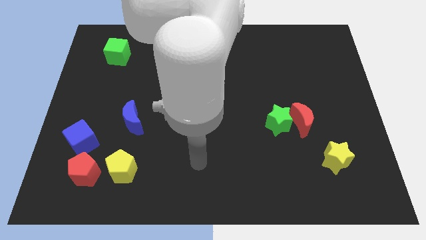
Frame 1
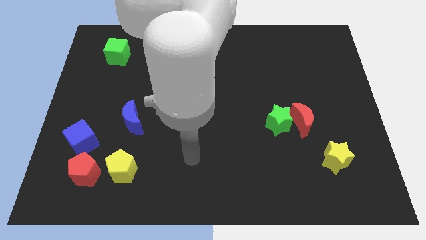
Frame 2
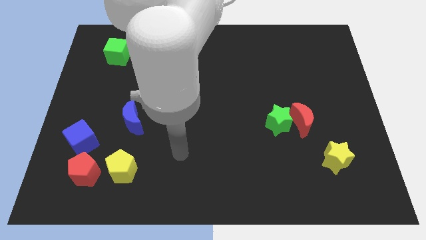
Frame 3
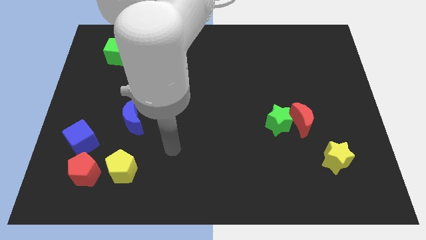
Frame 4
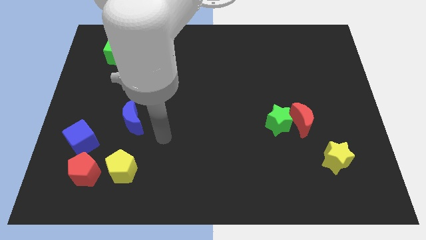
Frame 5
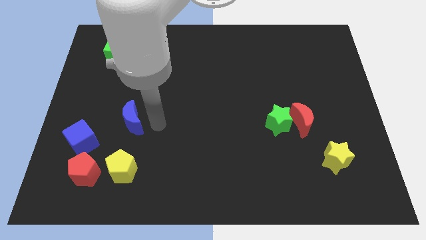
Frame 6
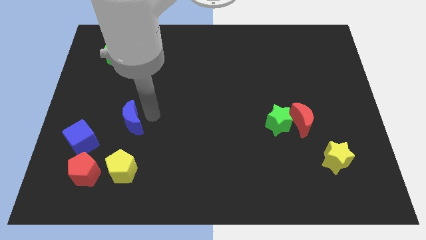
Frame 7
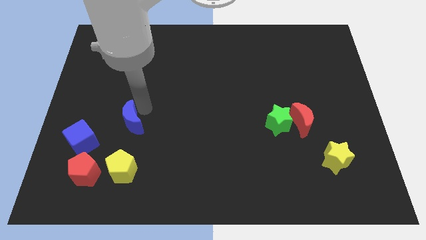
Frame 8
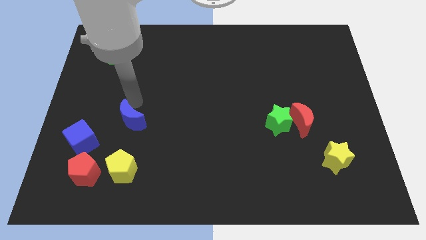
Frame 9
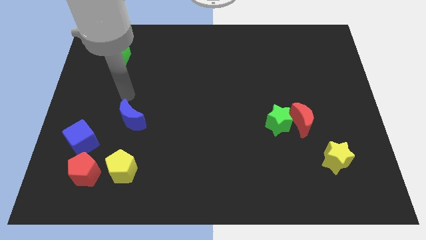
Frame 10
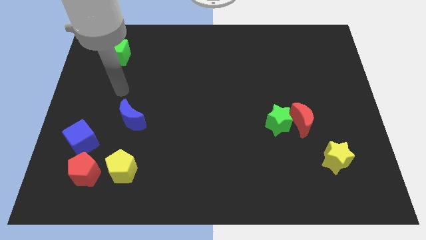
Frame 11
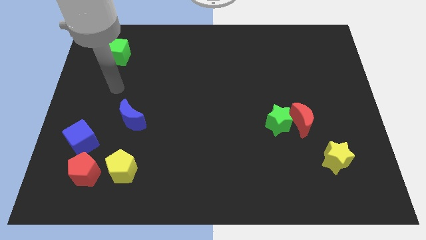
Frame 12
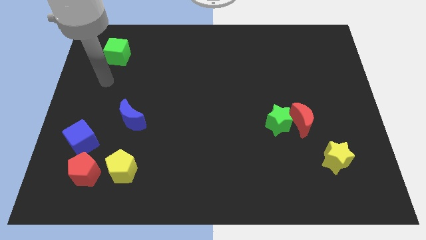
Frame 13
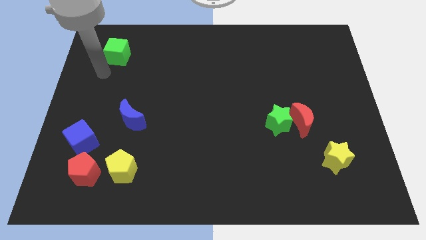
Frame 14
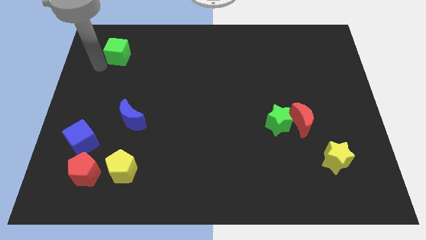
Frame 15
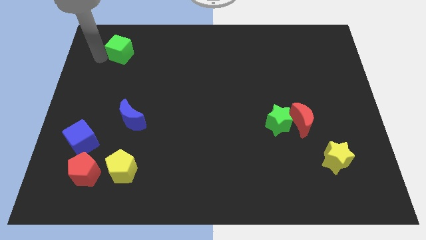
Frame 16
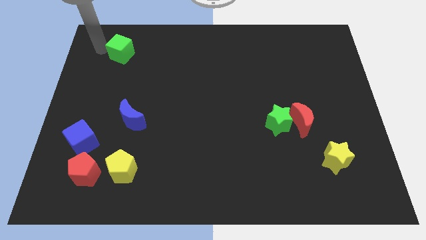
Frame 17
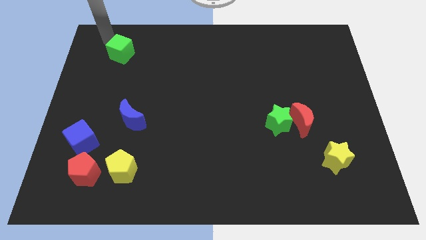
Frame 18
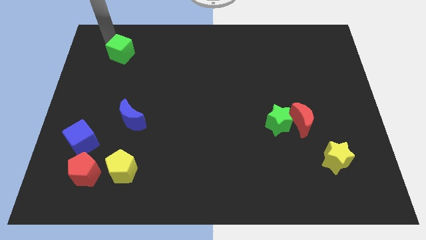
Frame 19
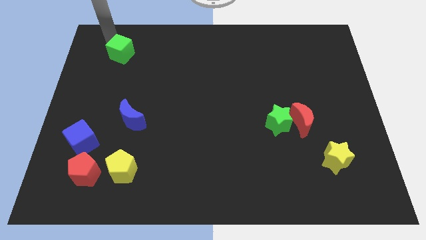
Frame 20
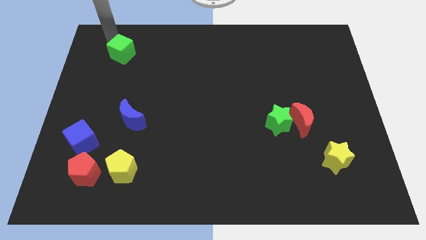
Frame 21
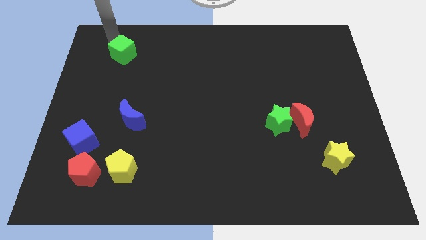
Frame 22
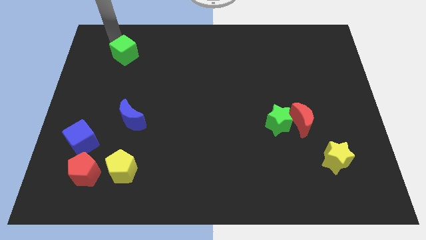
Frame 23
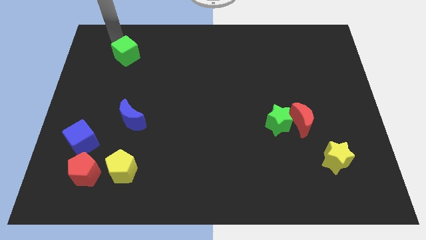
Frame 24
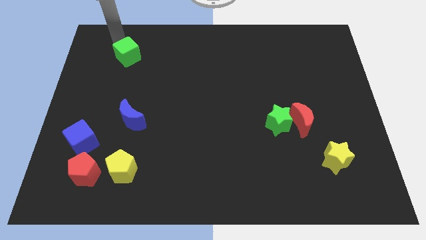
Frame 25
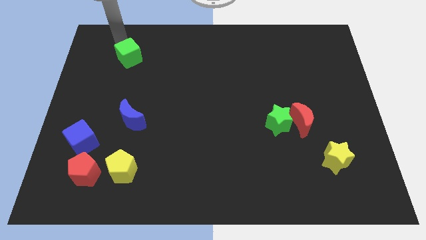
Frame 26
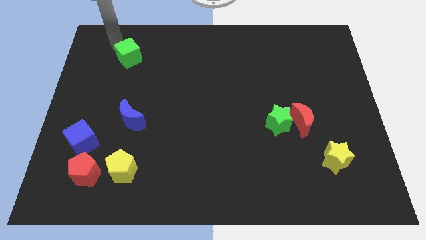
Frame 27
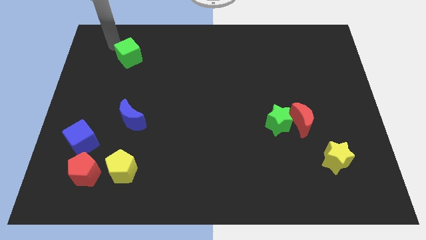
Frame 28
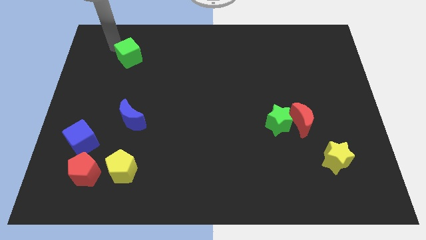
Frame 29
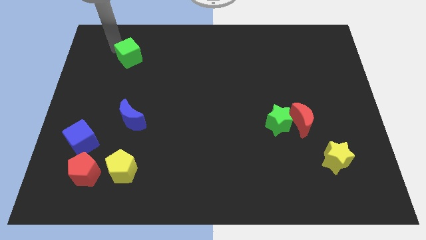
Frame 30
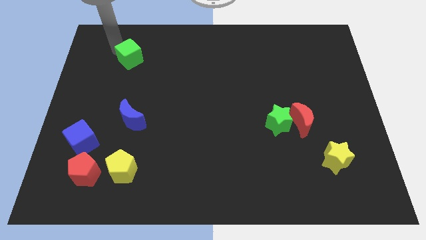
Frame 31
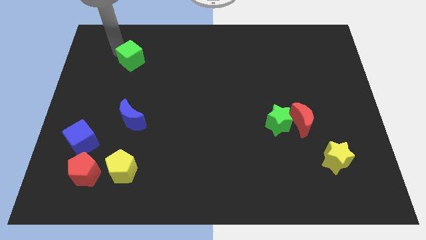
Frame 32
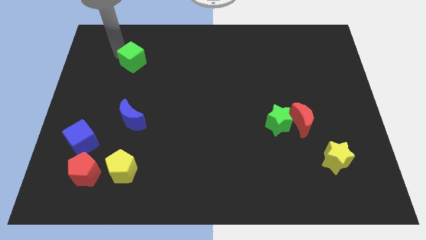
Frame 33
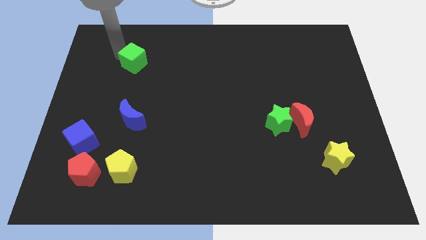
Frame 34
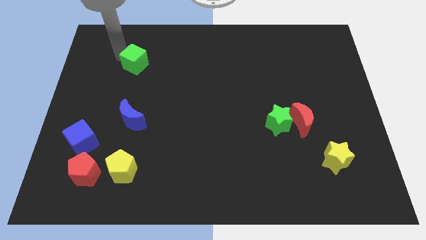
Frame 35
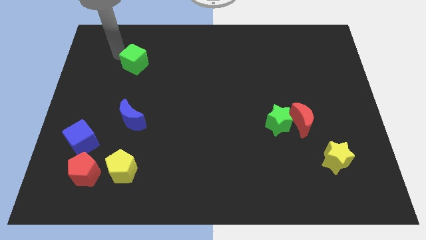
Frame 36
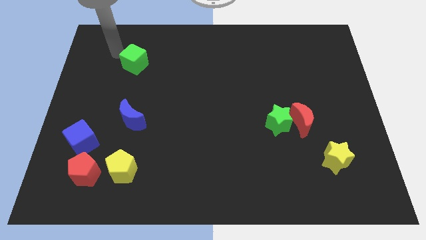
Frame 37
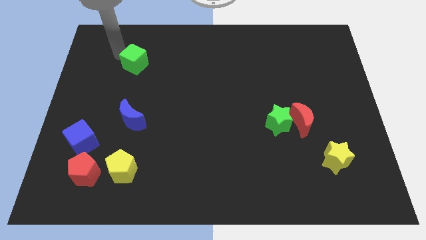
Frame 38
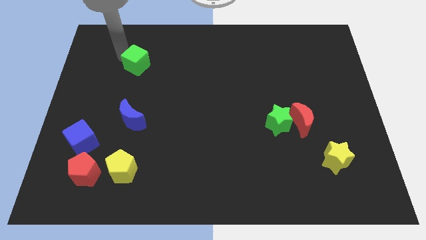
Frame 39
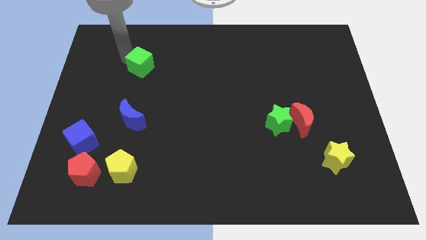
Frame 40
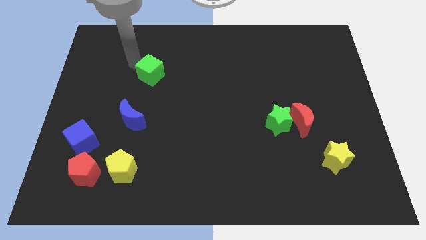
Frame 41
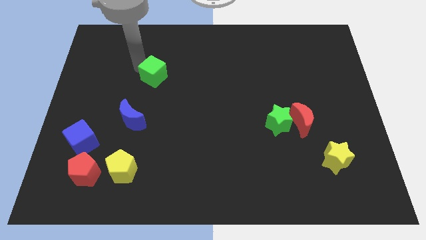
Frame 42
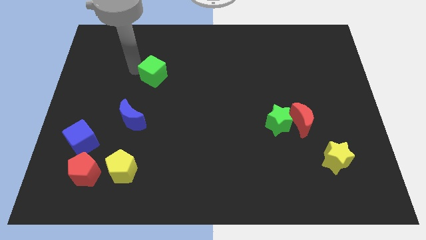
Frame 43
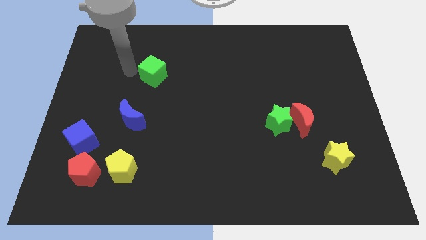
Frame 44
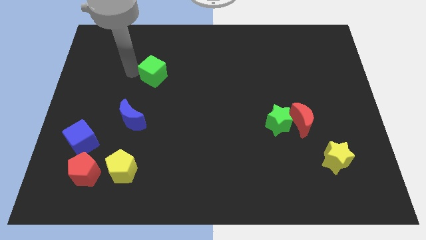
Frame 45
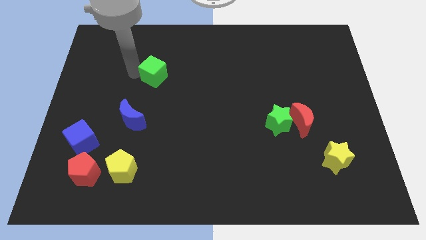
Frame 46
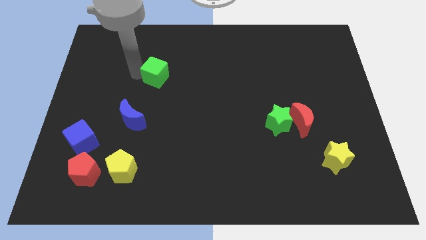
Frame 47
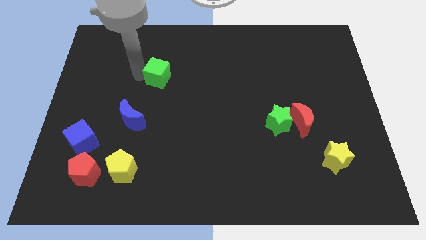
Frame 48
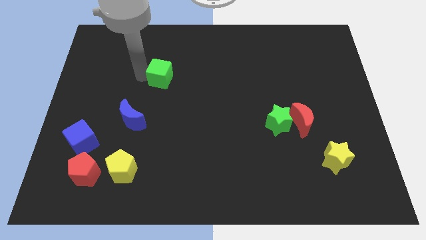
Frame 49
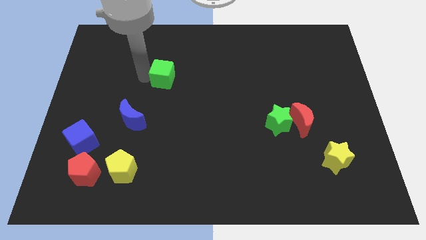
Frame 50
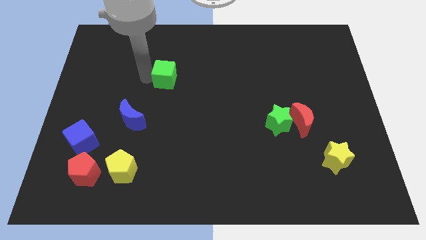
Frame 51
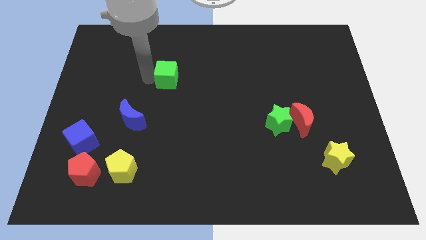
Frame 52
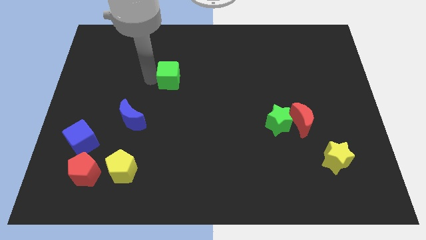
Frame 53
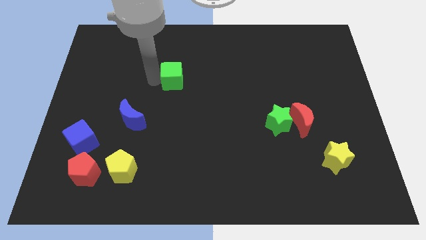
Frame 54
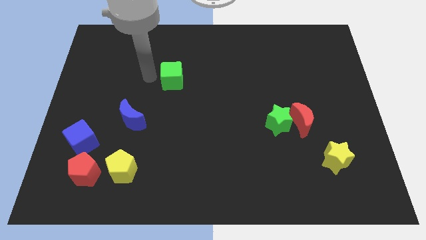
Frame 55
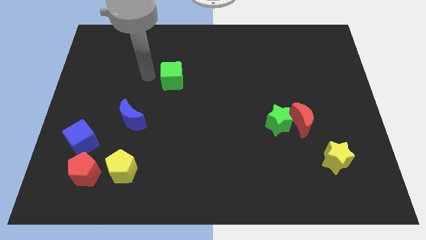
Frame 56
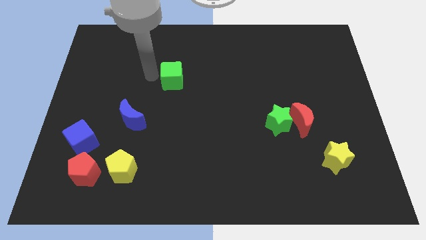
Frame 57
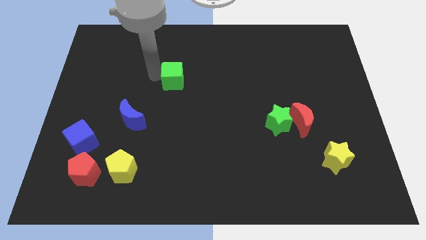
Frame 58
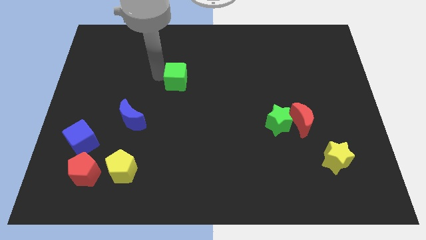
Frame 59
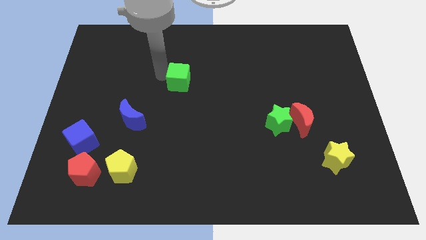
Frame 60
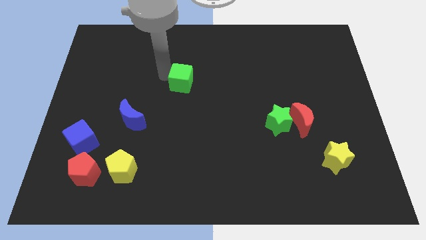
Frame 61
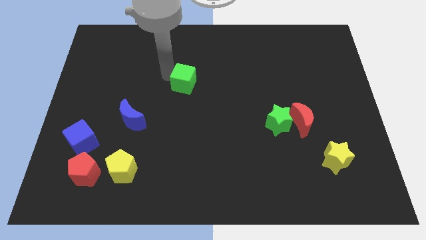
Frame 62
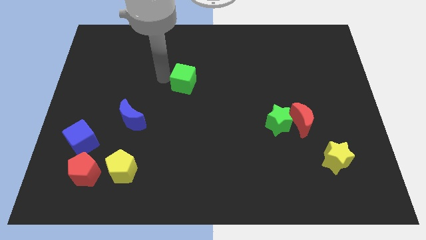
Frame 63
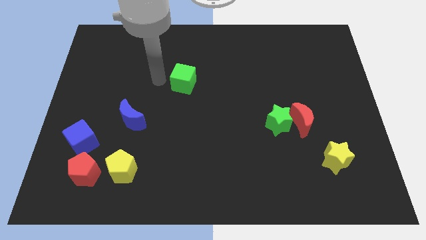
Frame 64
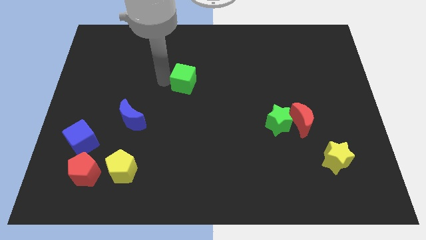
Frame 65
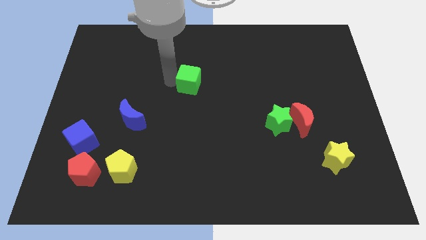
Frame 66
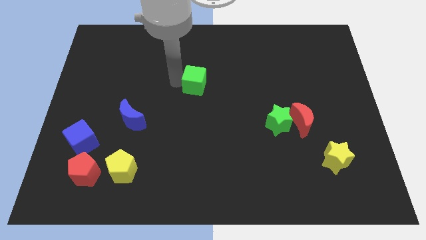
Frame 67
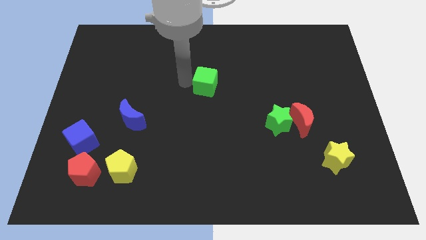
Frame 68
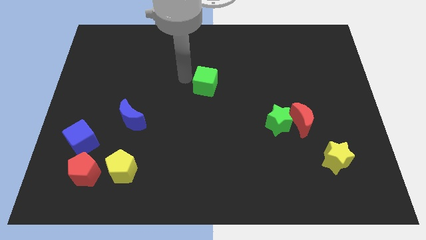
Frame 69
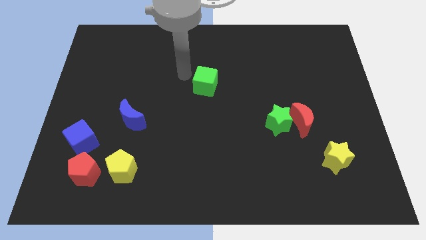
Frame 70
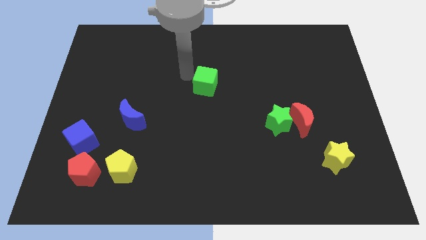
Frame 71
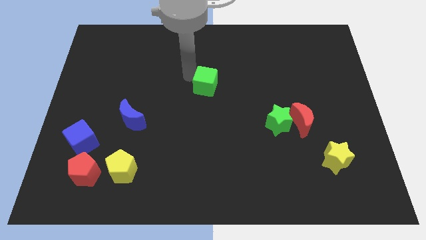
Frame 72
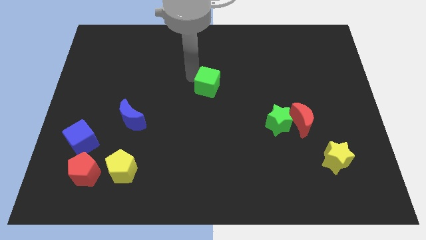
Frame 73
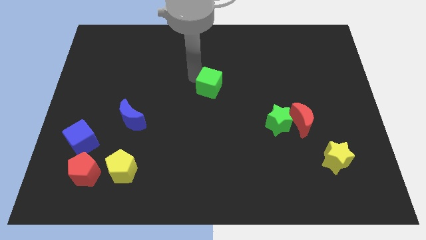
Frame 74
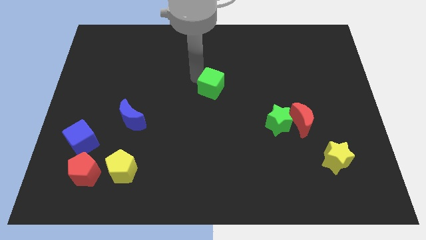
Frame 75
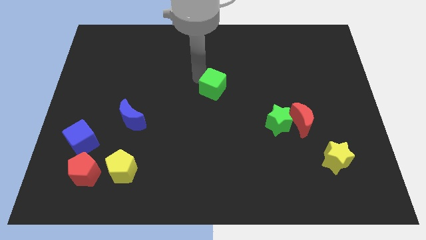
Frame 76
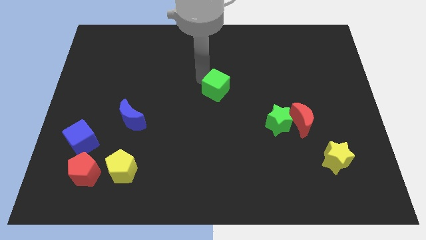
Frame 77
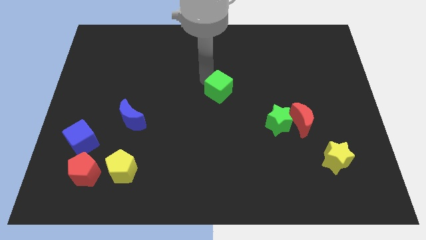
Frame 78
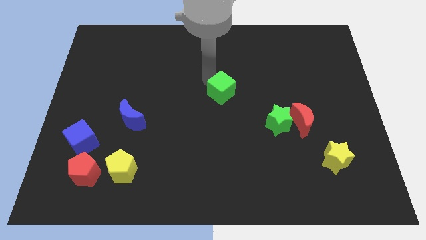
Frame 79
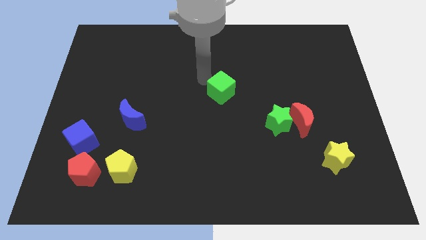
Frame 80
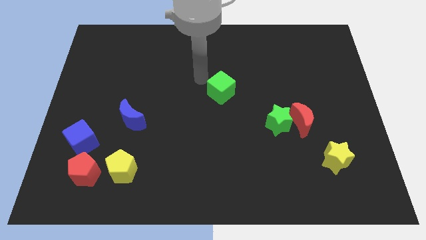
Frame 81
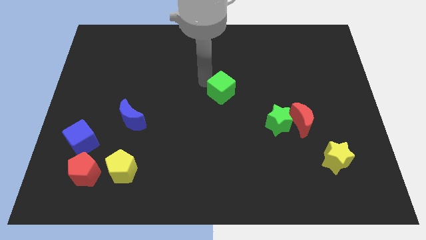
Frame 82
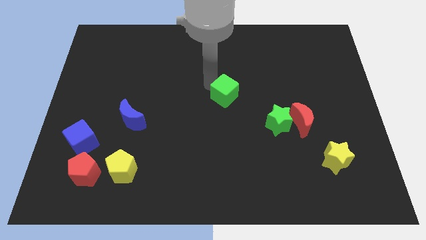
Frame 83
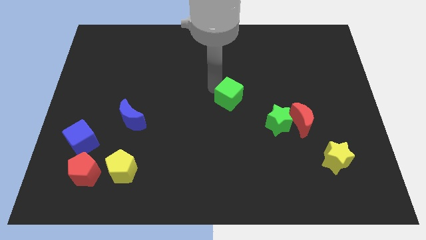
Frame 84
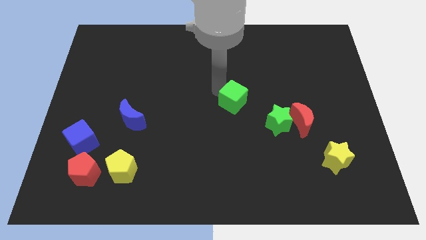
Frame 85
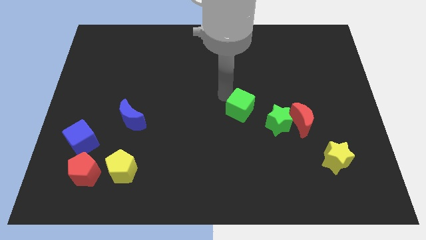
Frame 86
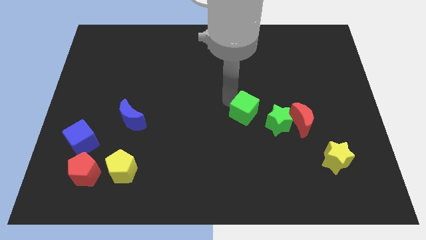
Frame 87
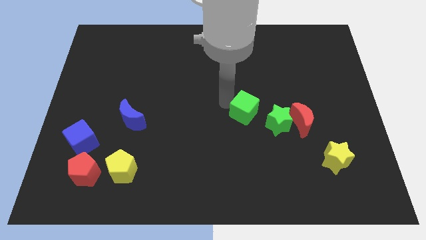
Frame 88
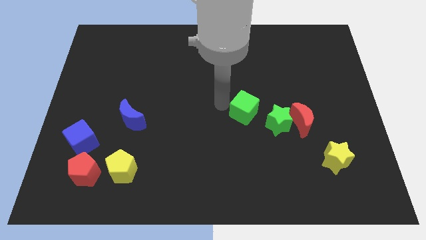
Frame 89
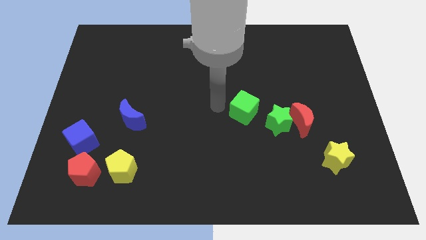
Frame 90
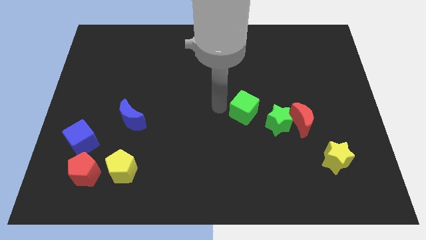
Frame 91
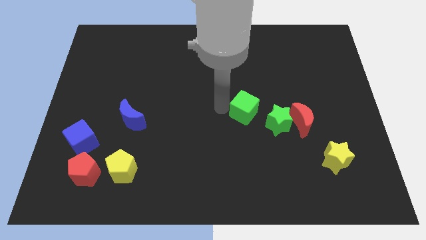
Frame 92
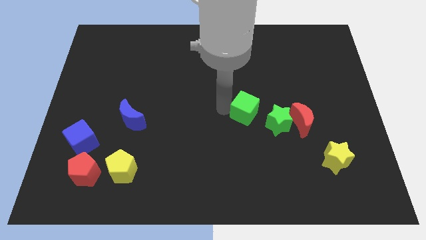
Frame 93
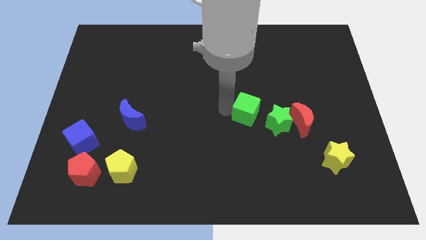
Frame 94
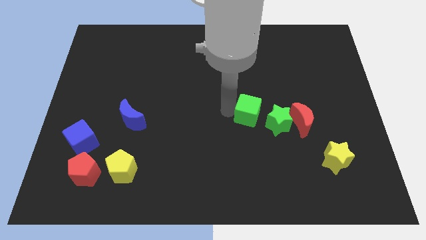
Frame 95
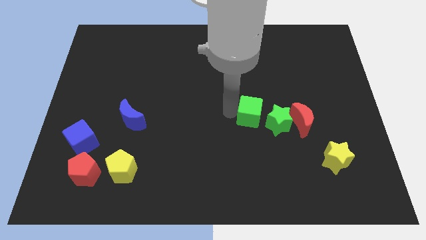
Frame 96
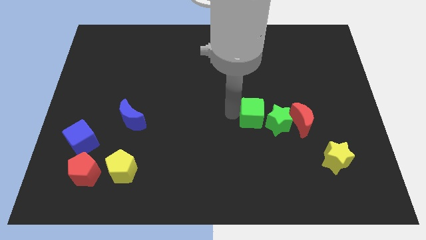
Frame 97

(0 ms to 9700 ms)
push the green cube towards the green star
